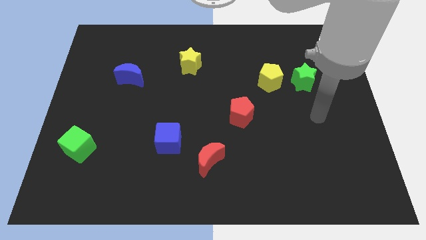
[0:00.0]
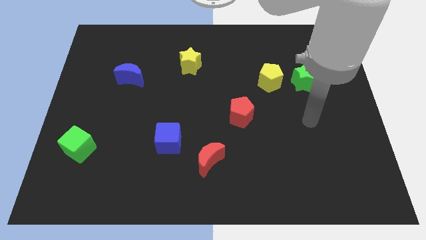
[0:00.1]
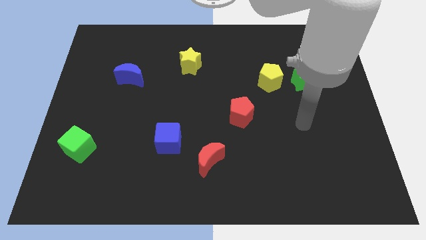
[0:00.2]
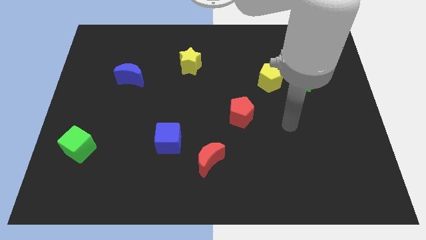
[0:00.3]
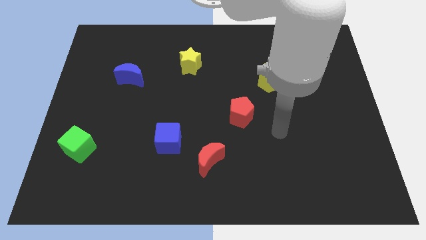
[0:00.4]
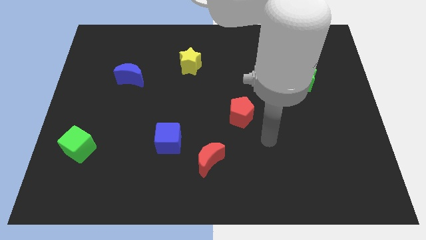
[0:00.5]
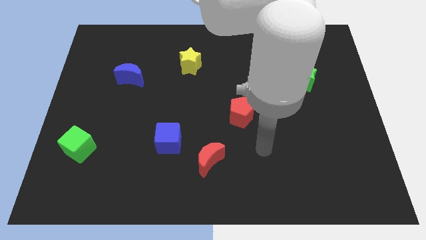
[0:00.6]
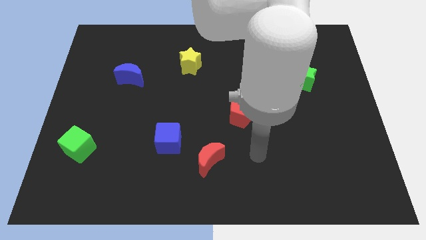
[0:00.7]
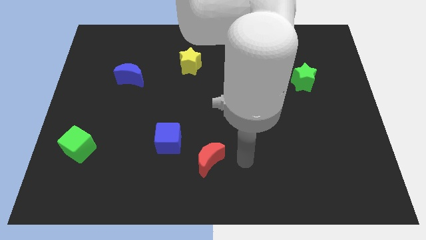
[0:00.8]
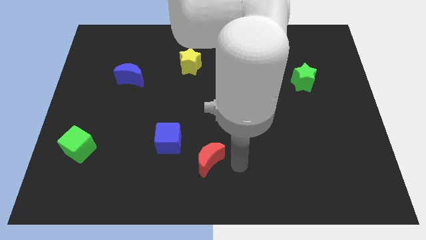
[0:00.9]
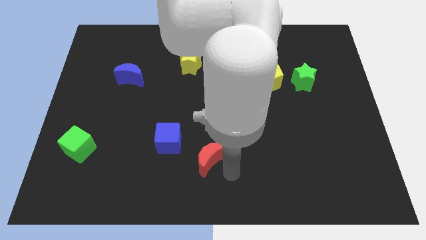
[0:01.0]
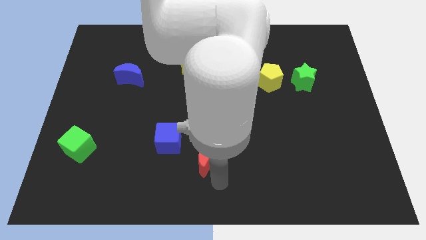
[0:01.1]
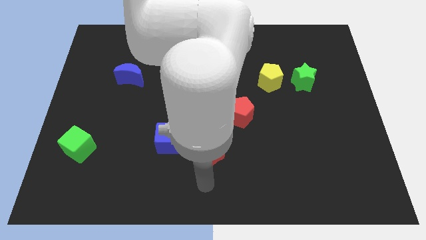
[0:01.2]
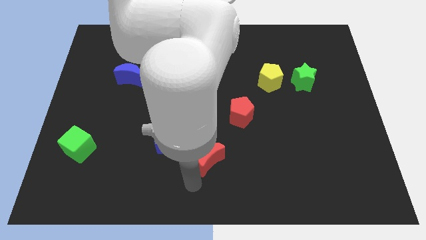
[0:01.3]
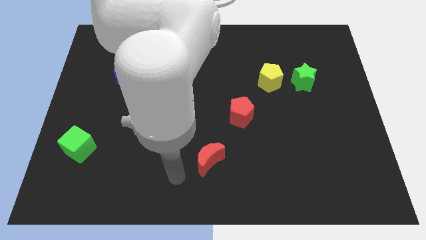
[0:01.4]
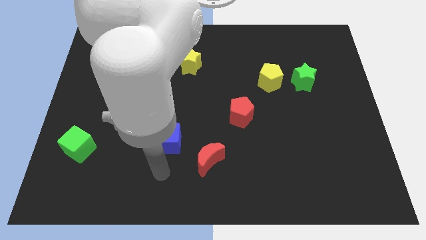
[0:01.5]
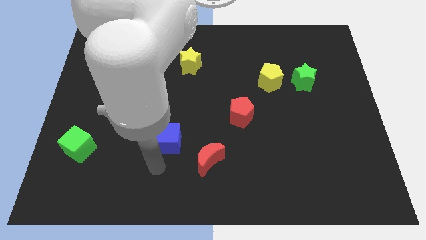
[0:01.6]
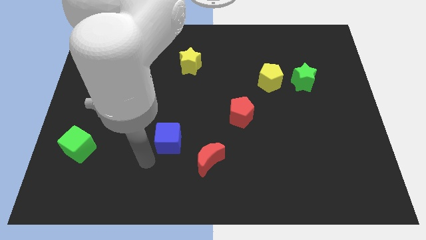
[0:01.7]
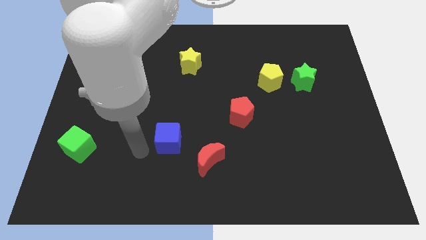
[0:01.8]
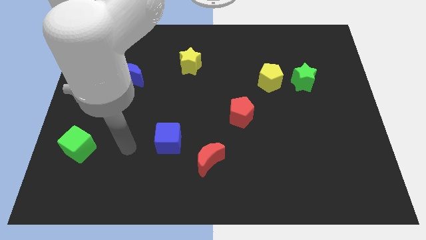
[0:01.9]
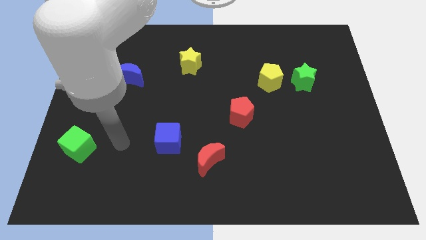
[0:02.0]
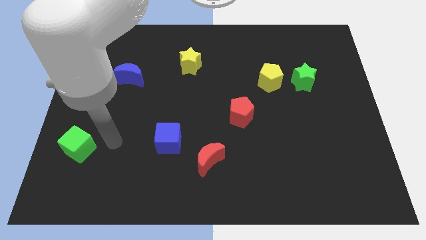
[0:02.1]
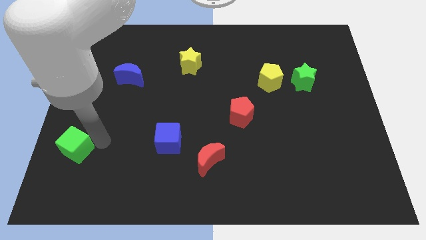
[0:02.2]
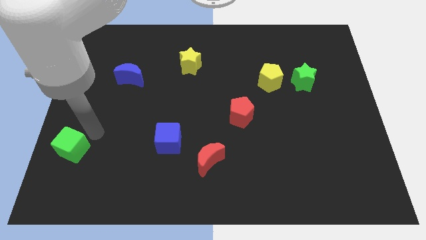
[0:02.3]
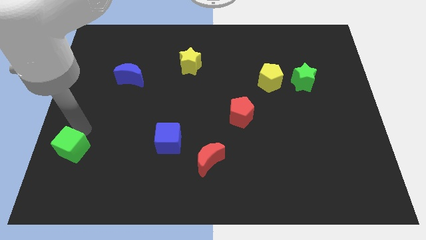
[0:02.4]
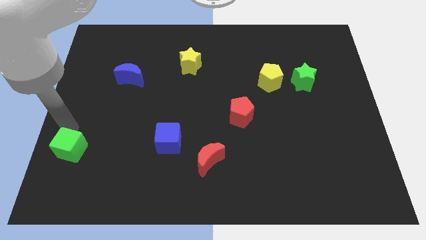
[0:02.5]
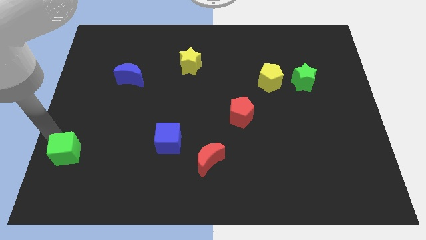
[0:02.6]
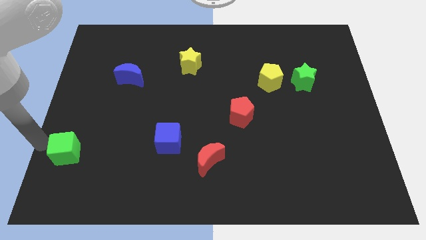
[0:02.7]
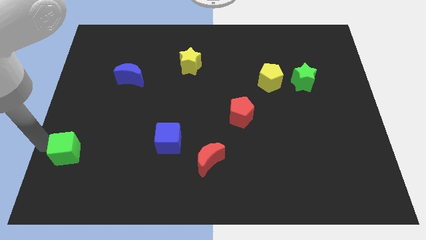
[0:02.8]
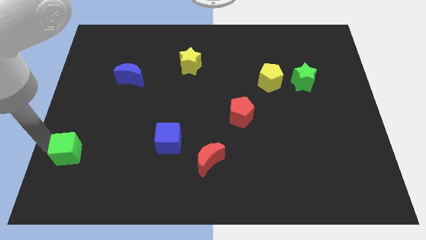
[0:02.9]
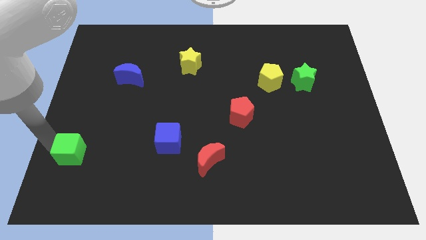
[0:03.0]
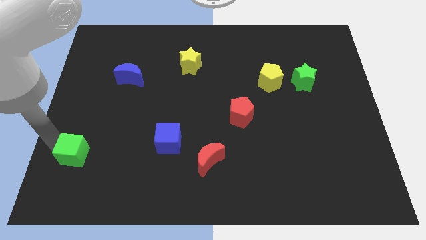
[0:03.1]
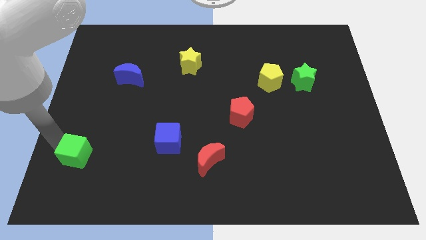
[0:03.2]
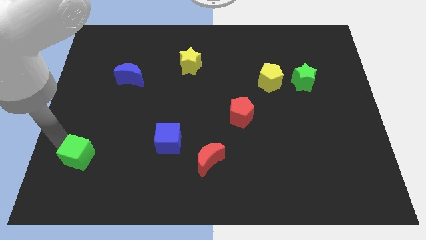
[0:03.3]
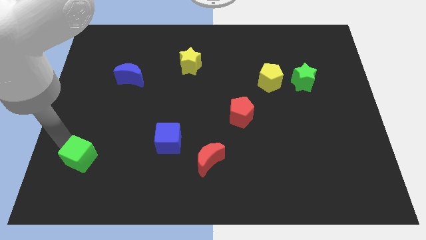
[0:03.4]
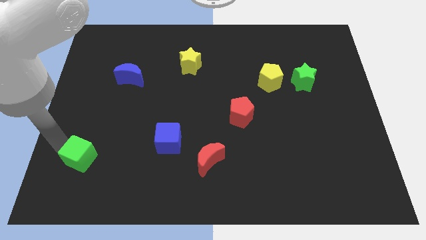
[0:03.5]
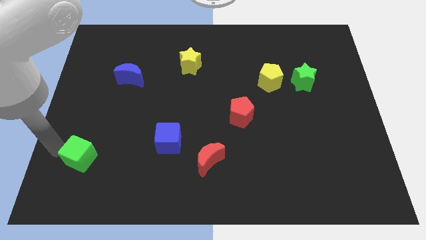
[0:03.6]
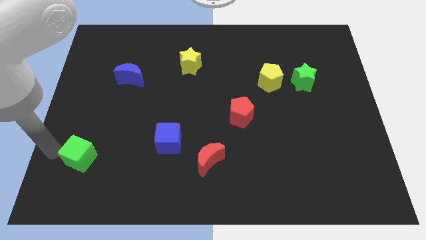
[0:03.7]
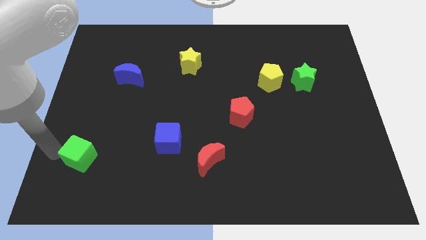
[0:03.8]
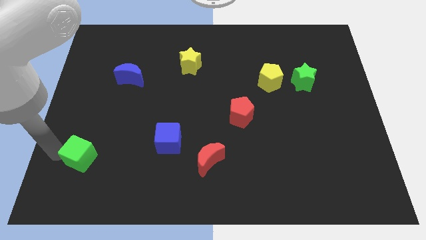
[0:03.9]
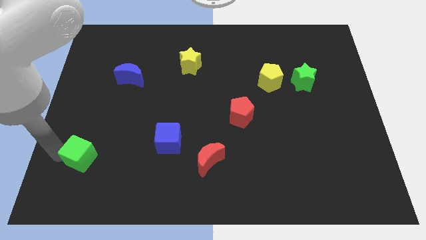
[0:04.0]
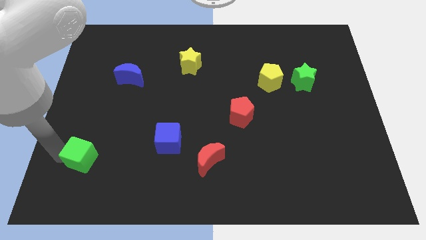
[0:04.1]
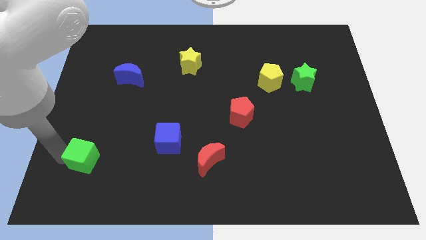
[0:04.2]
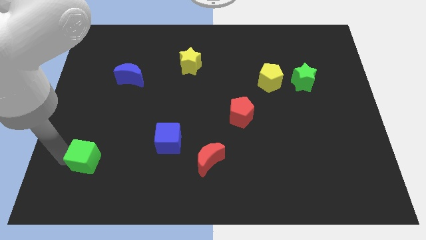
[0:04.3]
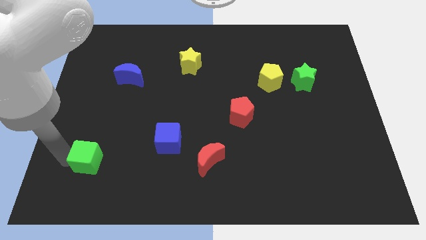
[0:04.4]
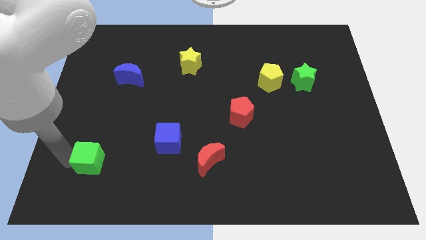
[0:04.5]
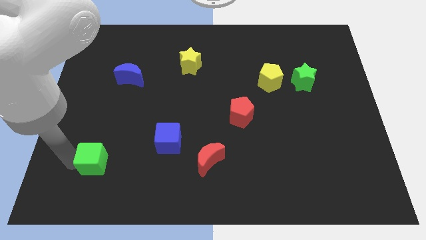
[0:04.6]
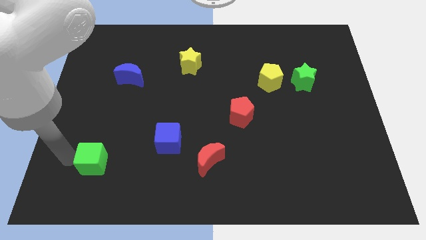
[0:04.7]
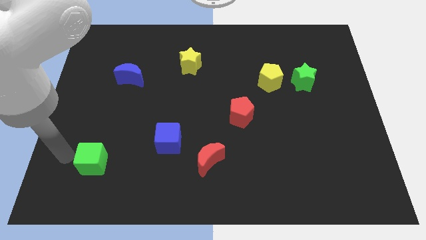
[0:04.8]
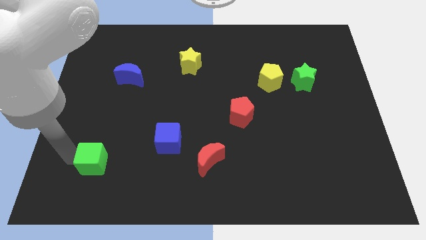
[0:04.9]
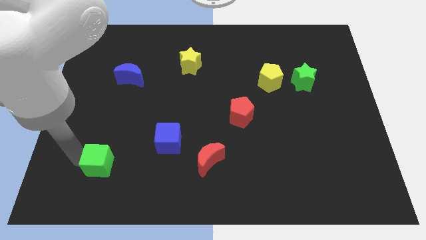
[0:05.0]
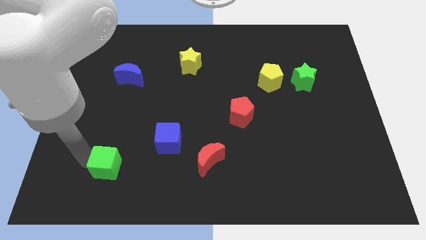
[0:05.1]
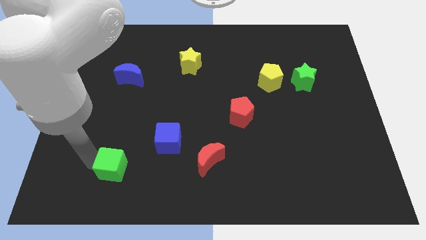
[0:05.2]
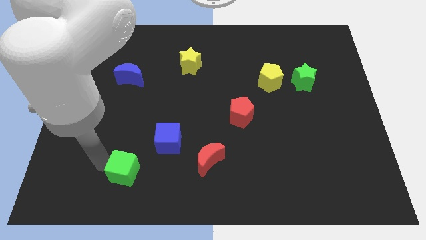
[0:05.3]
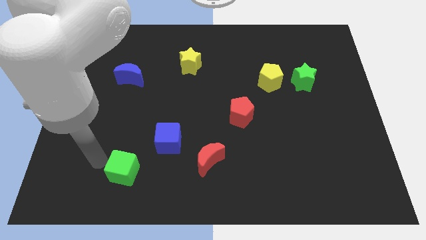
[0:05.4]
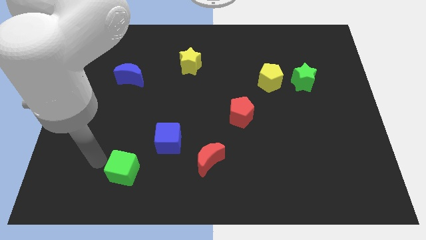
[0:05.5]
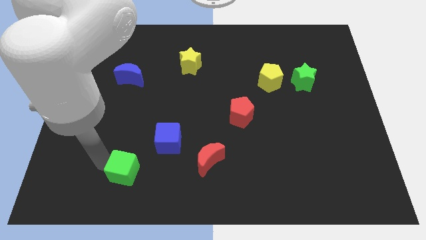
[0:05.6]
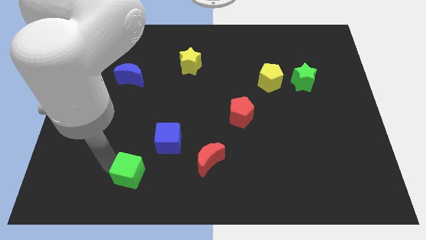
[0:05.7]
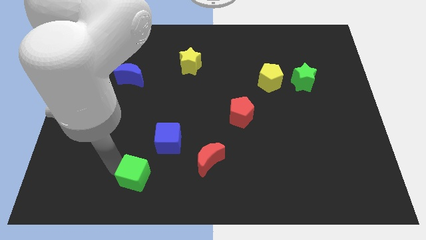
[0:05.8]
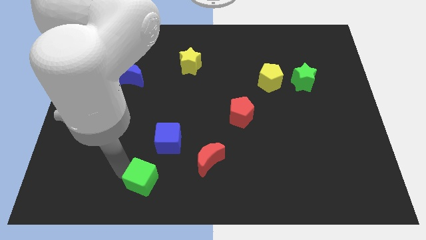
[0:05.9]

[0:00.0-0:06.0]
slide the green cube to the bottom of the blue cube
